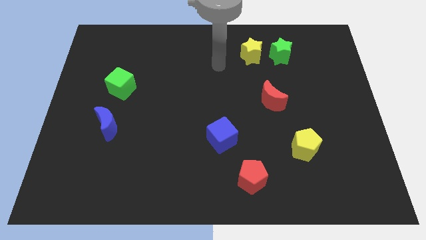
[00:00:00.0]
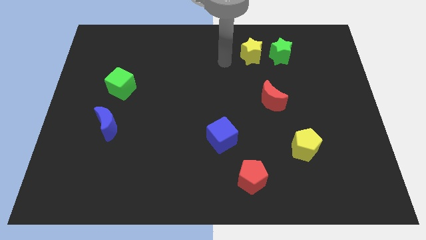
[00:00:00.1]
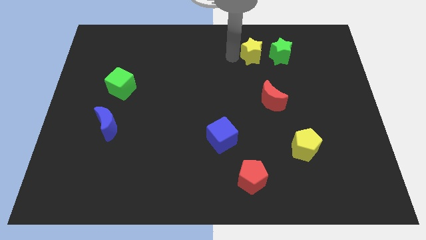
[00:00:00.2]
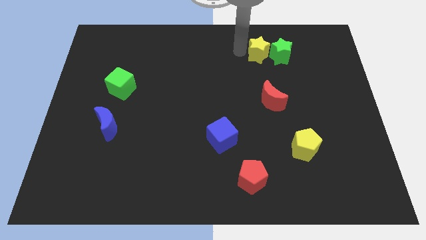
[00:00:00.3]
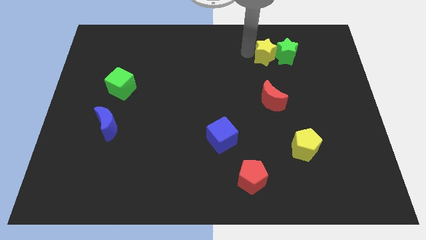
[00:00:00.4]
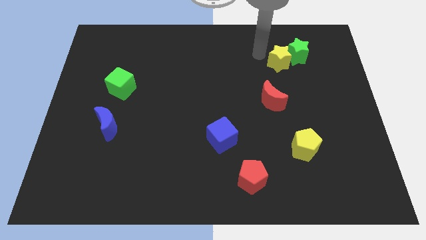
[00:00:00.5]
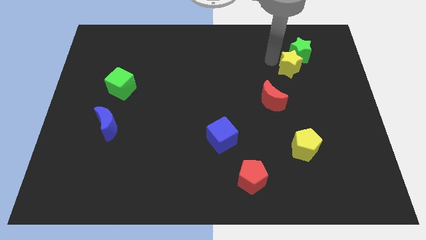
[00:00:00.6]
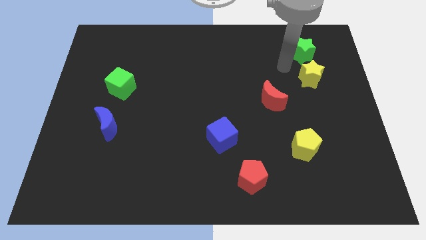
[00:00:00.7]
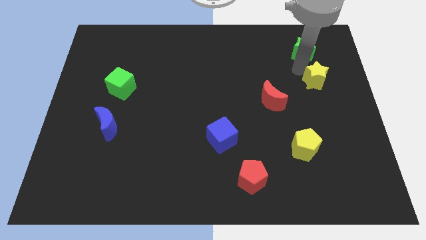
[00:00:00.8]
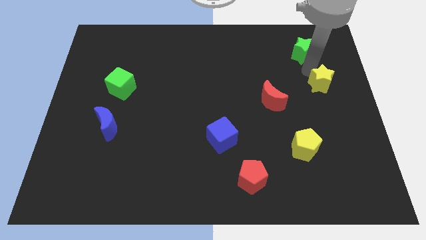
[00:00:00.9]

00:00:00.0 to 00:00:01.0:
separate the green star from the yellow star

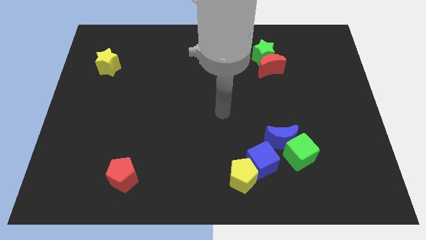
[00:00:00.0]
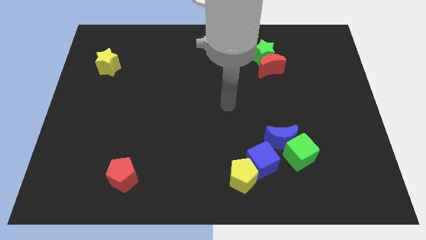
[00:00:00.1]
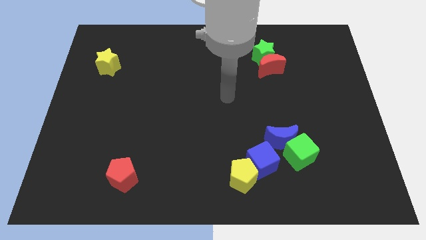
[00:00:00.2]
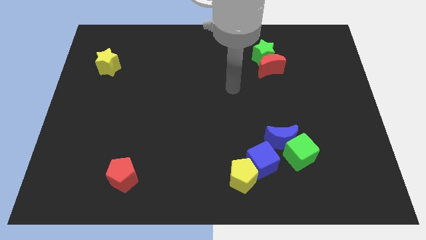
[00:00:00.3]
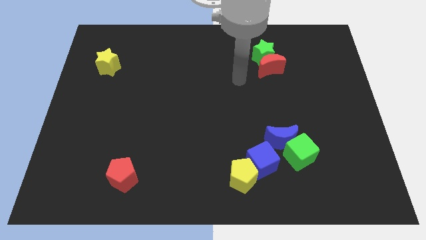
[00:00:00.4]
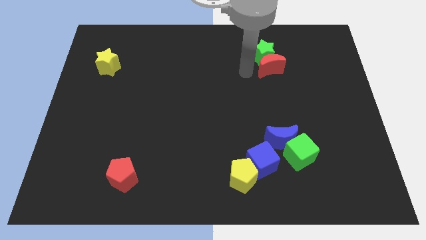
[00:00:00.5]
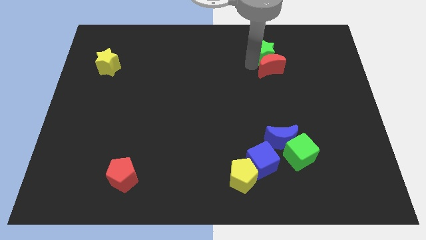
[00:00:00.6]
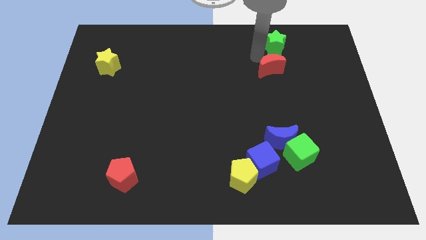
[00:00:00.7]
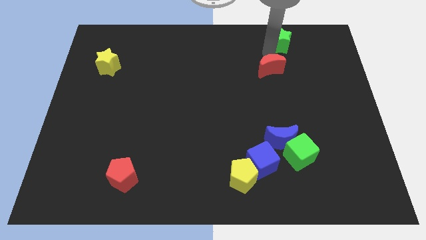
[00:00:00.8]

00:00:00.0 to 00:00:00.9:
pull the red moon apart from the green star

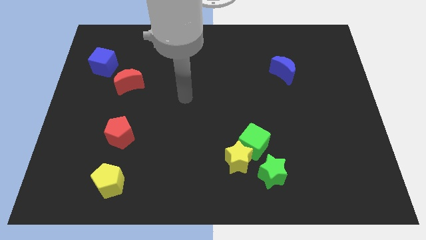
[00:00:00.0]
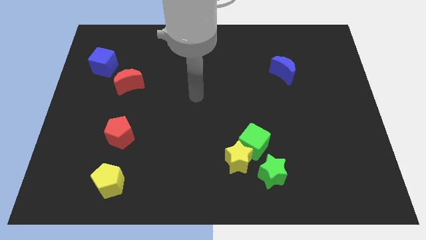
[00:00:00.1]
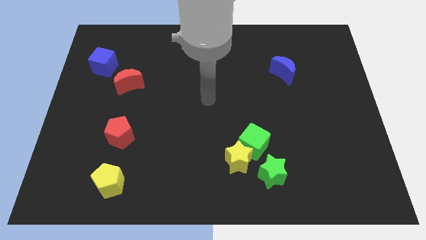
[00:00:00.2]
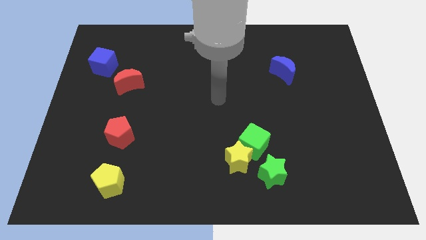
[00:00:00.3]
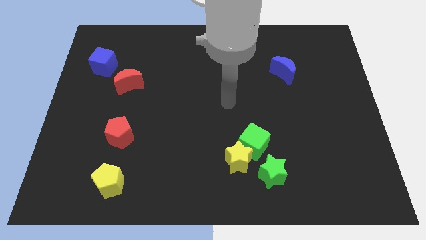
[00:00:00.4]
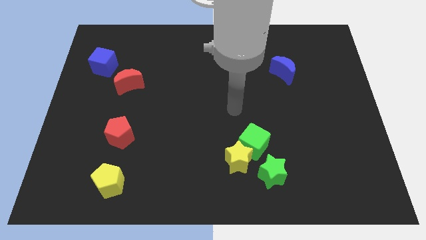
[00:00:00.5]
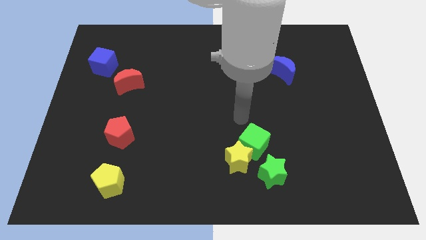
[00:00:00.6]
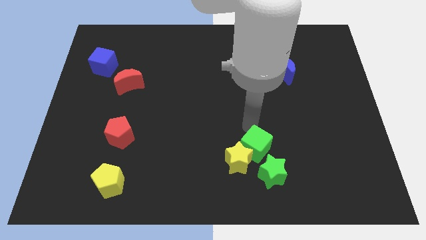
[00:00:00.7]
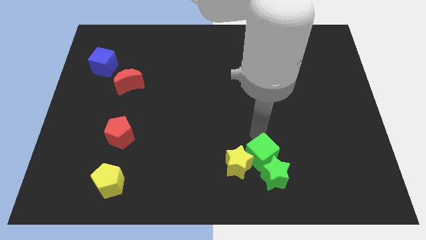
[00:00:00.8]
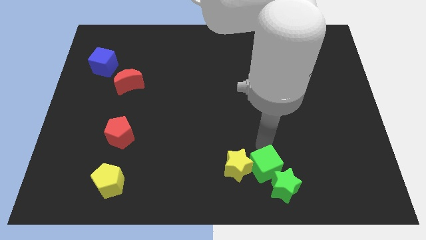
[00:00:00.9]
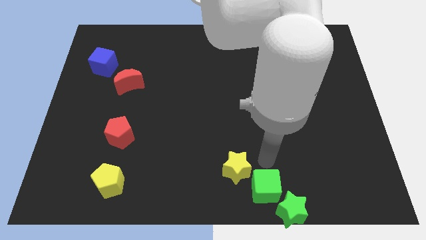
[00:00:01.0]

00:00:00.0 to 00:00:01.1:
move the yellow star away from the green cube and green star

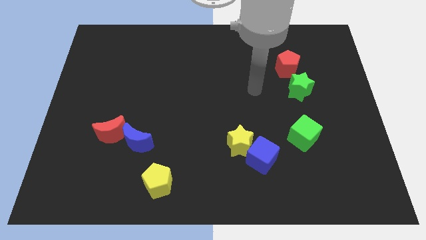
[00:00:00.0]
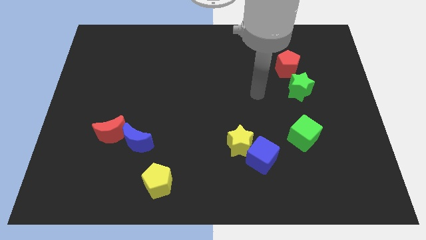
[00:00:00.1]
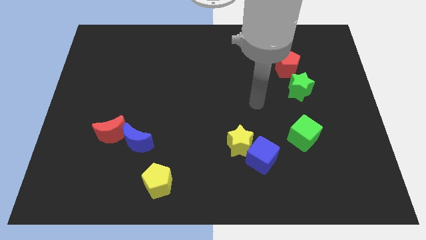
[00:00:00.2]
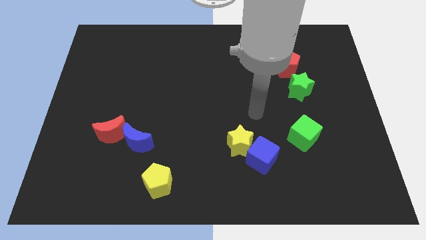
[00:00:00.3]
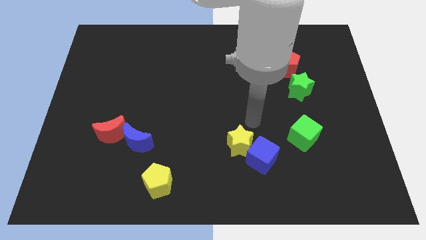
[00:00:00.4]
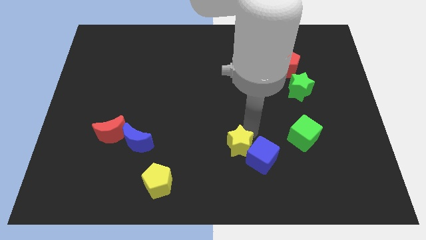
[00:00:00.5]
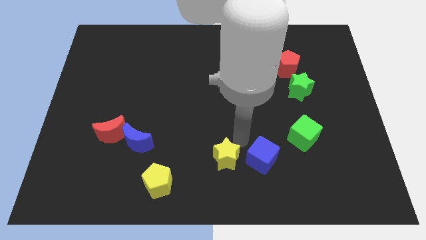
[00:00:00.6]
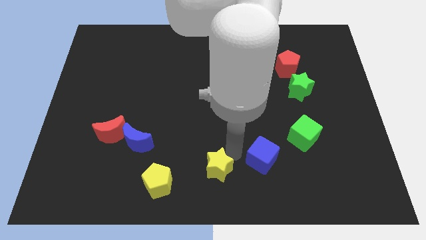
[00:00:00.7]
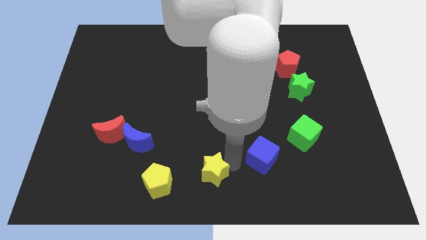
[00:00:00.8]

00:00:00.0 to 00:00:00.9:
pull the blue cube apart from the yellow star

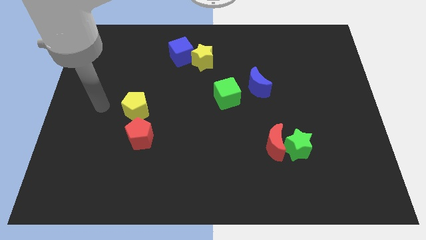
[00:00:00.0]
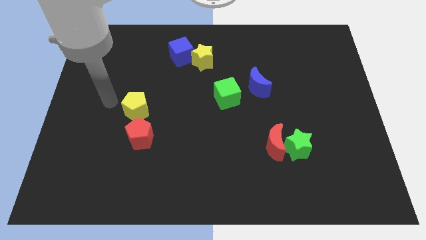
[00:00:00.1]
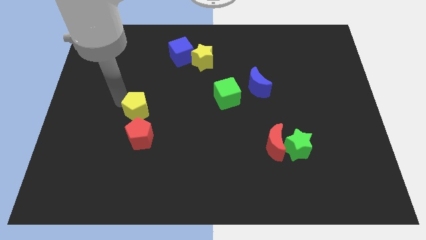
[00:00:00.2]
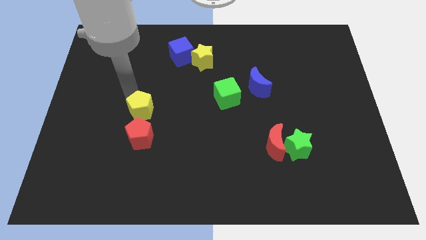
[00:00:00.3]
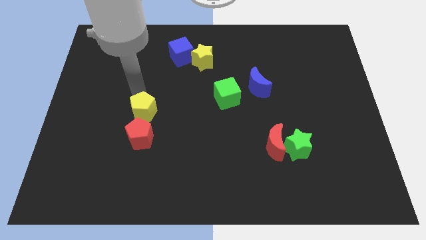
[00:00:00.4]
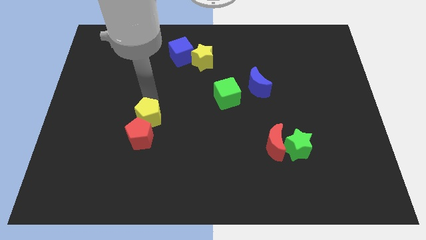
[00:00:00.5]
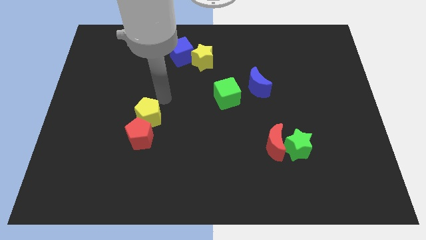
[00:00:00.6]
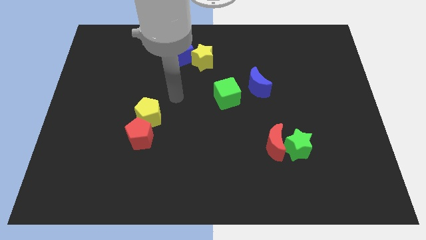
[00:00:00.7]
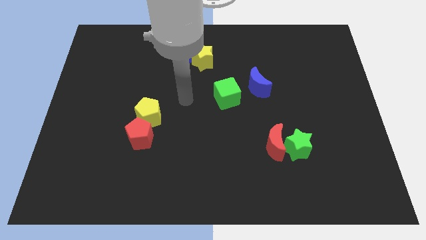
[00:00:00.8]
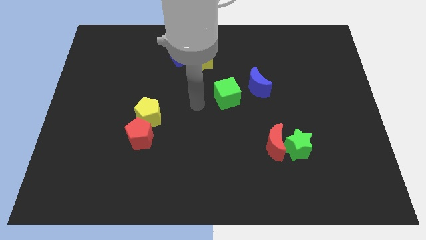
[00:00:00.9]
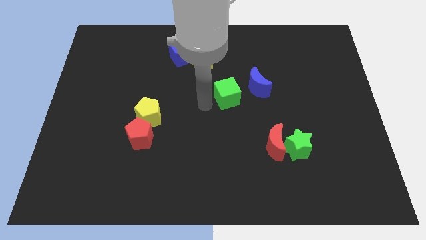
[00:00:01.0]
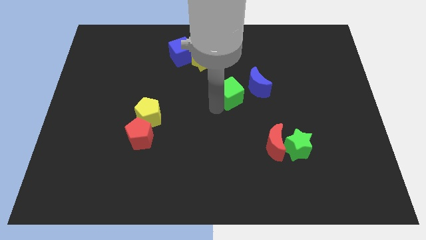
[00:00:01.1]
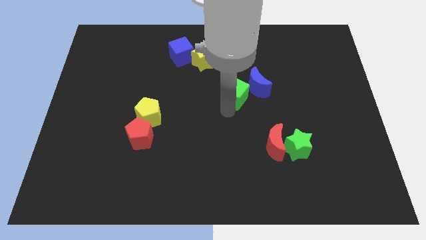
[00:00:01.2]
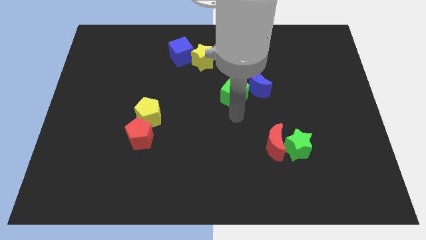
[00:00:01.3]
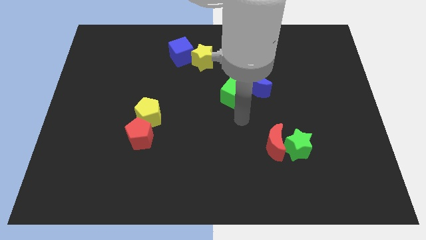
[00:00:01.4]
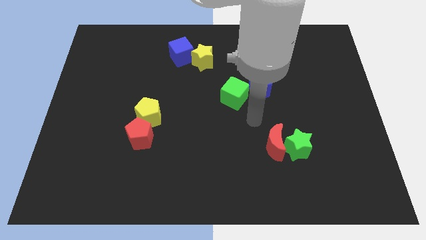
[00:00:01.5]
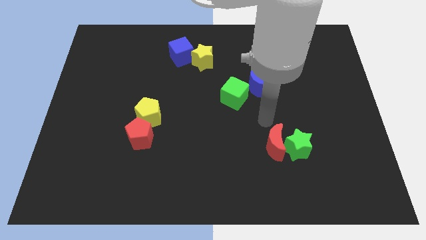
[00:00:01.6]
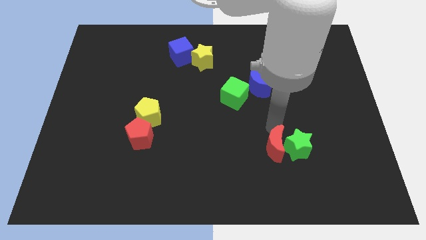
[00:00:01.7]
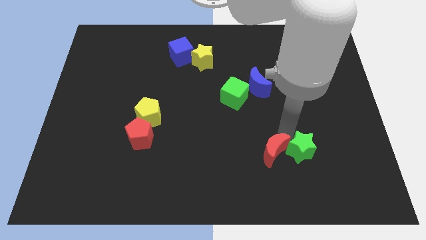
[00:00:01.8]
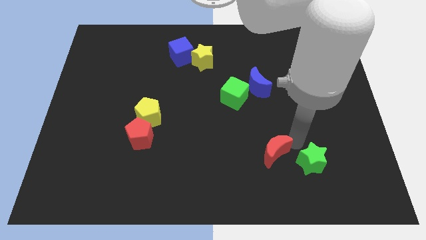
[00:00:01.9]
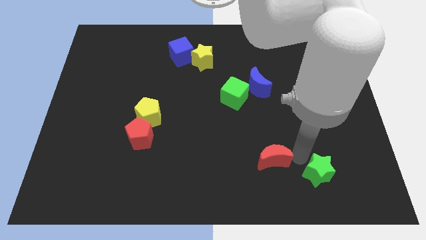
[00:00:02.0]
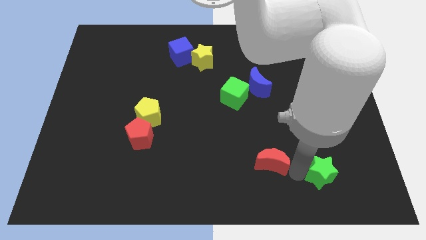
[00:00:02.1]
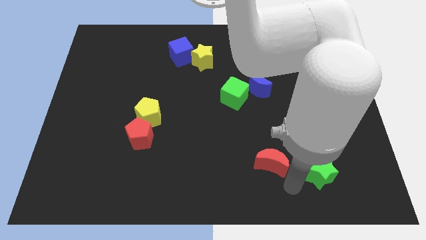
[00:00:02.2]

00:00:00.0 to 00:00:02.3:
move the red moon away from the green star

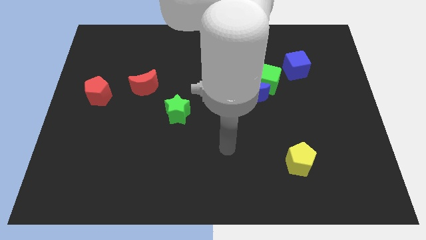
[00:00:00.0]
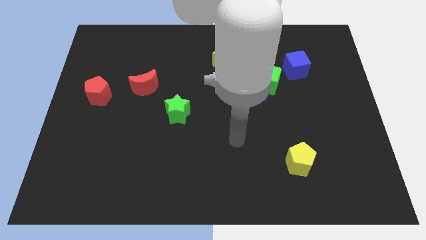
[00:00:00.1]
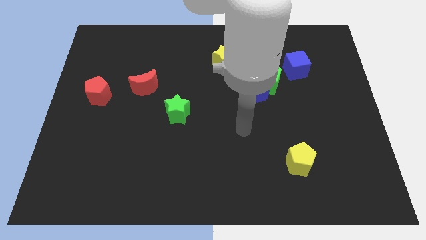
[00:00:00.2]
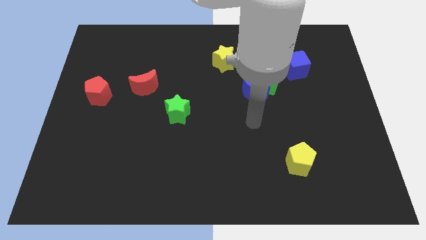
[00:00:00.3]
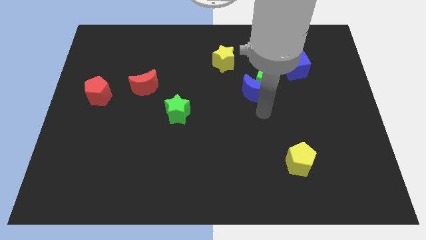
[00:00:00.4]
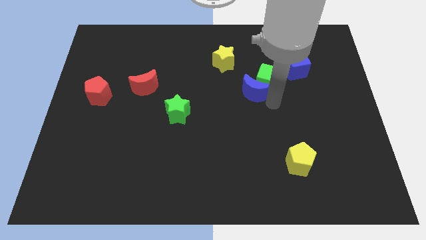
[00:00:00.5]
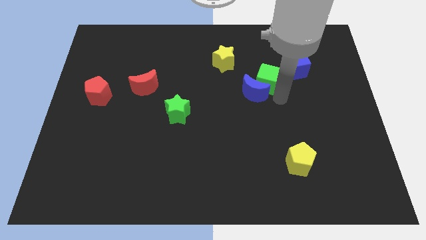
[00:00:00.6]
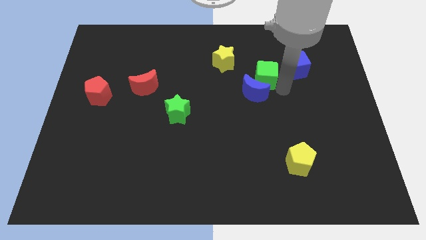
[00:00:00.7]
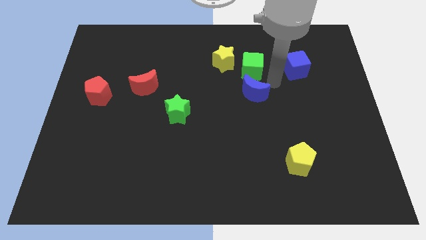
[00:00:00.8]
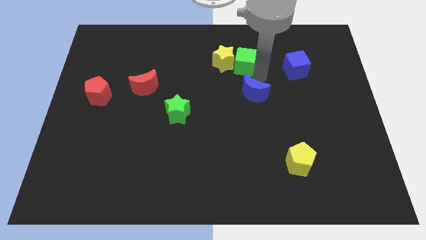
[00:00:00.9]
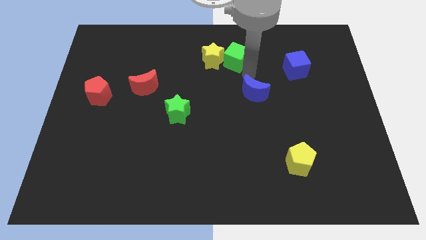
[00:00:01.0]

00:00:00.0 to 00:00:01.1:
pull the blue moon apart from the green cube

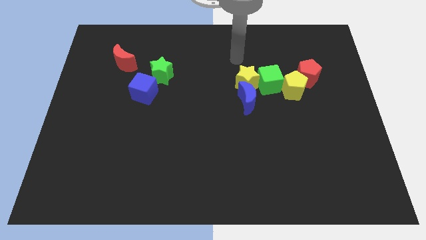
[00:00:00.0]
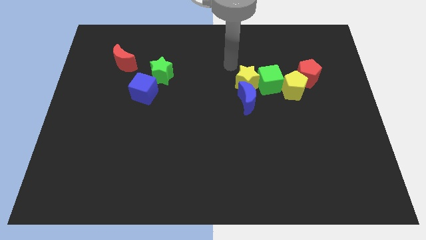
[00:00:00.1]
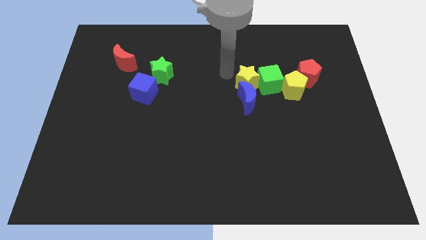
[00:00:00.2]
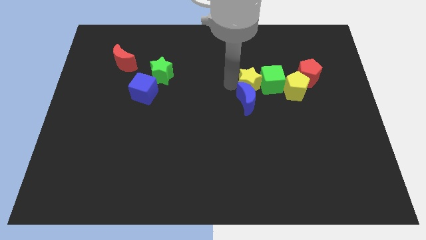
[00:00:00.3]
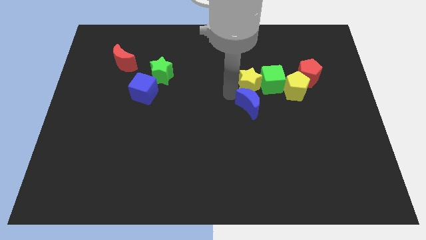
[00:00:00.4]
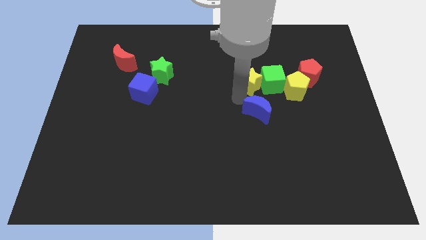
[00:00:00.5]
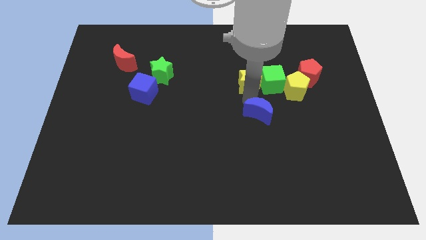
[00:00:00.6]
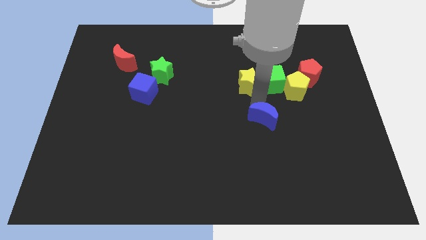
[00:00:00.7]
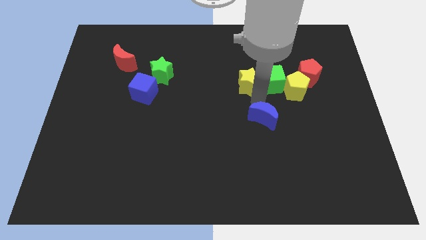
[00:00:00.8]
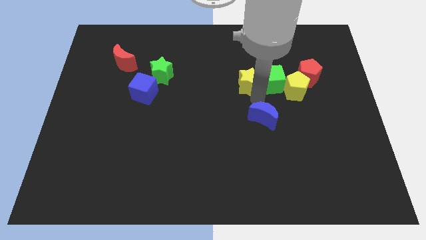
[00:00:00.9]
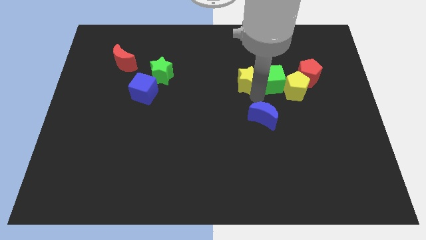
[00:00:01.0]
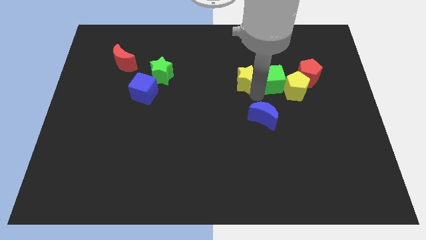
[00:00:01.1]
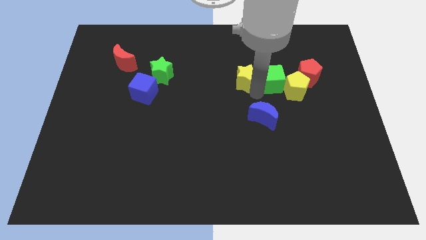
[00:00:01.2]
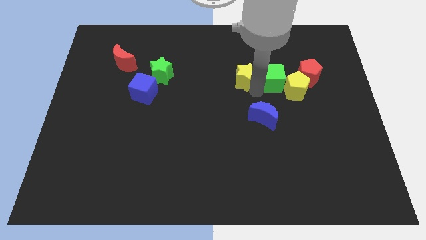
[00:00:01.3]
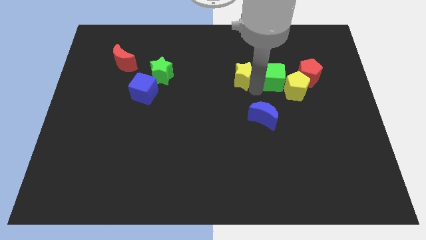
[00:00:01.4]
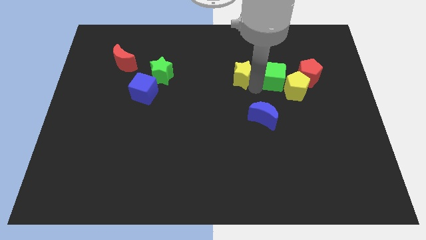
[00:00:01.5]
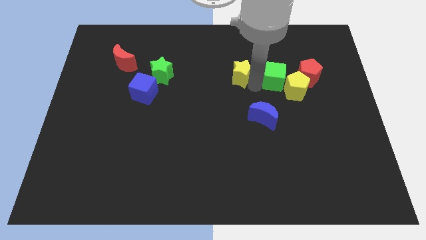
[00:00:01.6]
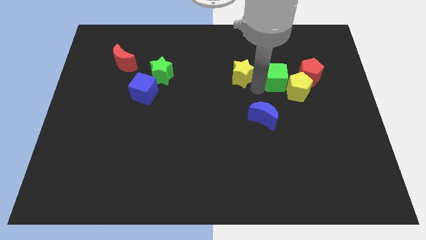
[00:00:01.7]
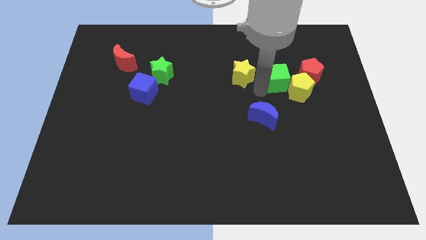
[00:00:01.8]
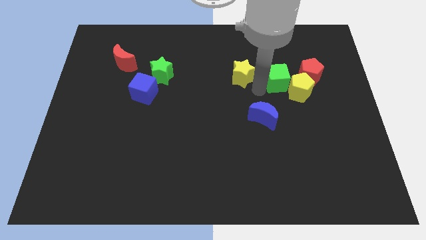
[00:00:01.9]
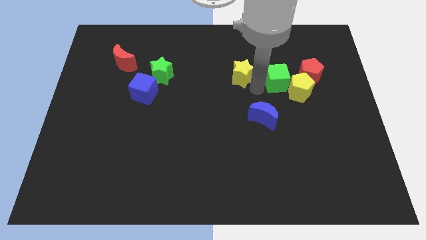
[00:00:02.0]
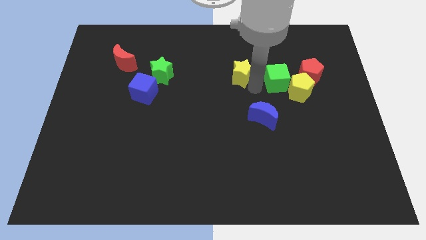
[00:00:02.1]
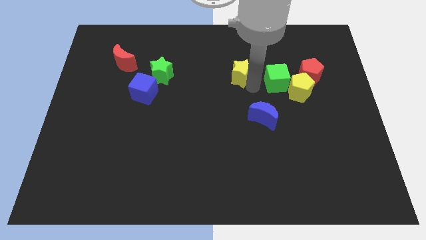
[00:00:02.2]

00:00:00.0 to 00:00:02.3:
separate the yellow star from the green cube and blue moon
